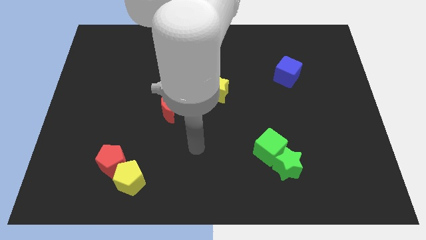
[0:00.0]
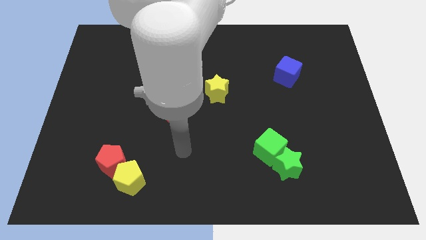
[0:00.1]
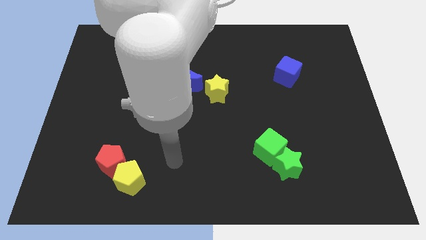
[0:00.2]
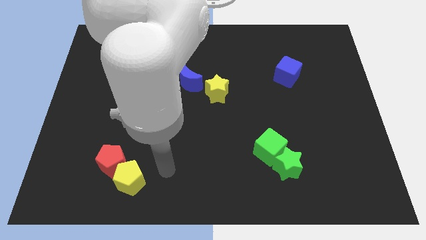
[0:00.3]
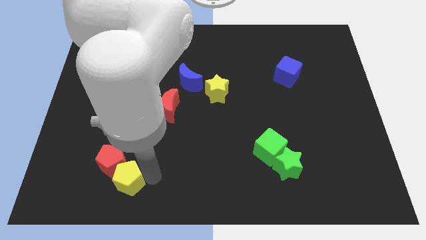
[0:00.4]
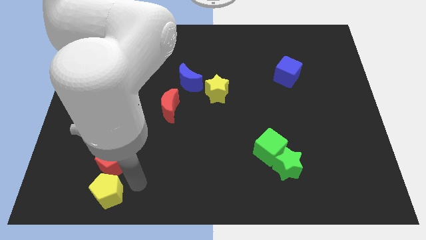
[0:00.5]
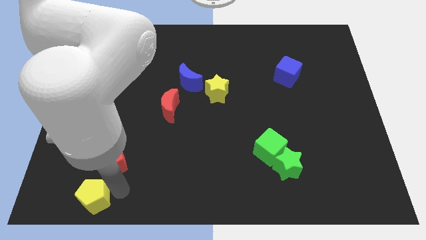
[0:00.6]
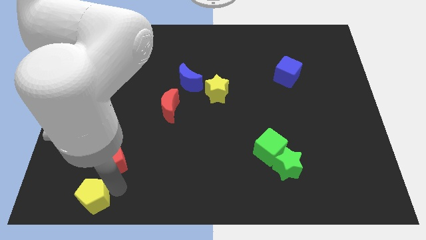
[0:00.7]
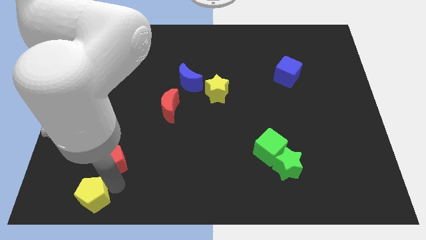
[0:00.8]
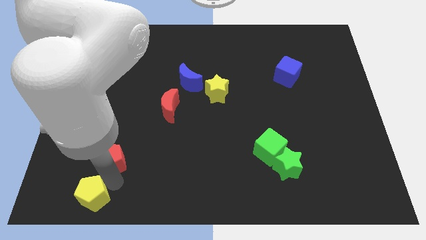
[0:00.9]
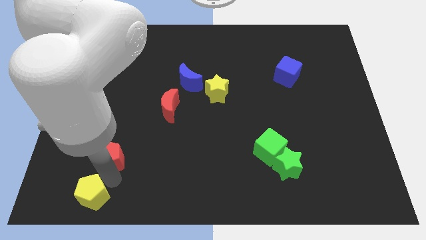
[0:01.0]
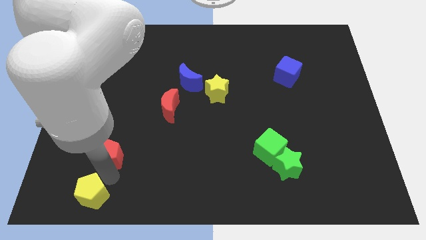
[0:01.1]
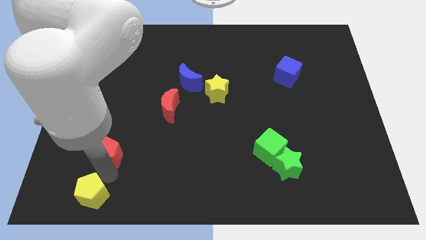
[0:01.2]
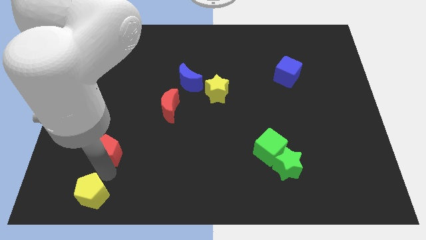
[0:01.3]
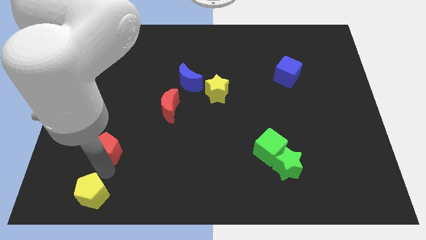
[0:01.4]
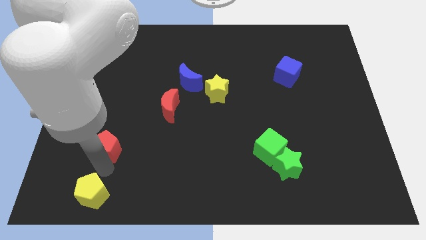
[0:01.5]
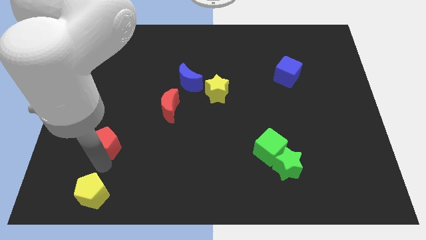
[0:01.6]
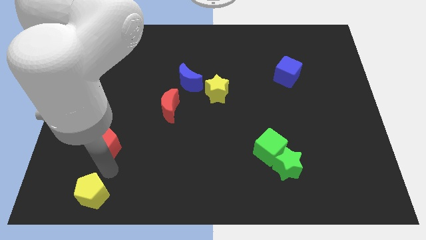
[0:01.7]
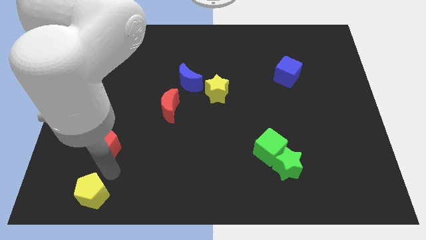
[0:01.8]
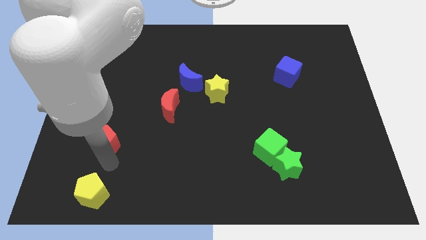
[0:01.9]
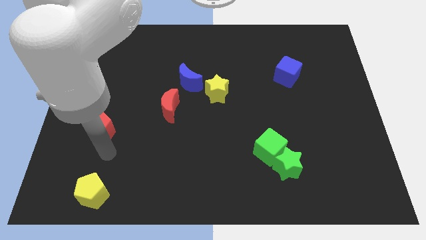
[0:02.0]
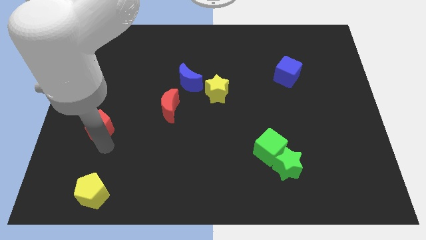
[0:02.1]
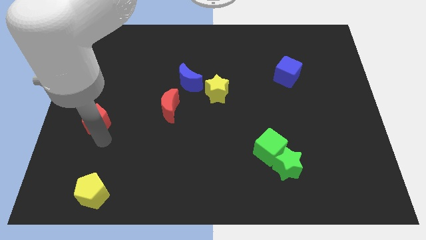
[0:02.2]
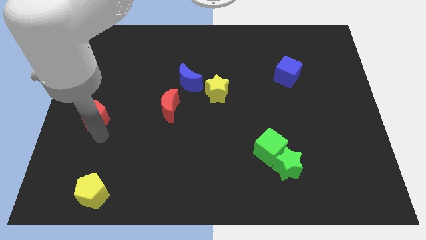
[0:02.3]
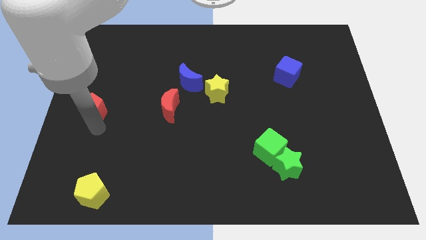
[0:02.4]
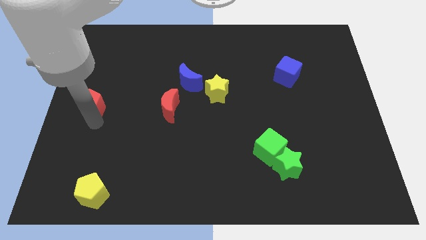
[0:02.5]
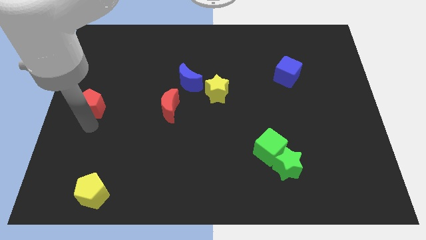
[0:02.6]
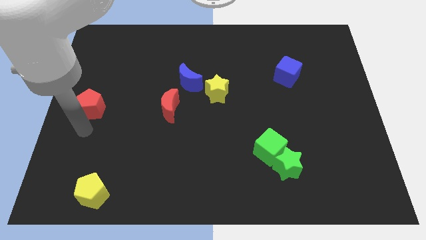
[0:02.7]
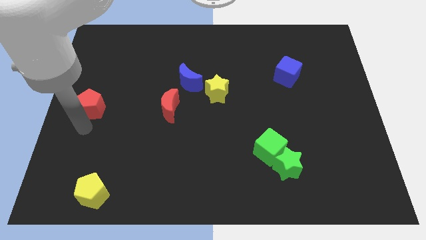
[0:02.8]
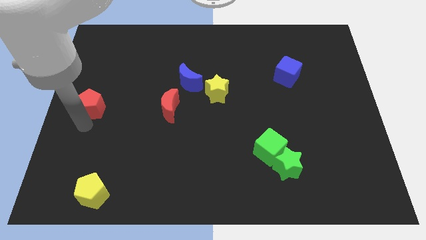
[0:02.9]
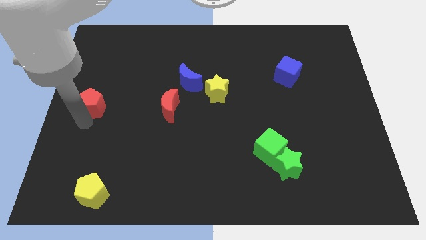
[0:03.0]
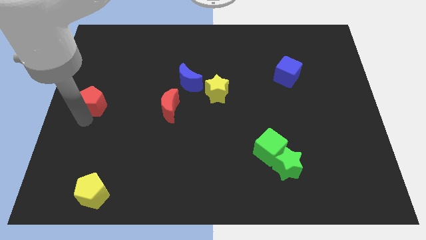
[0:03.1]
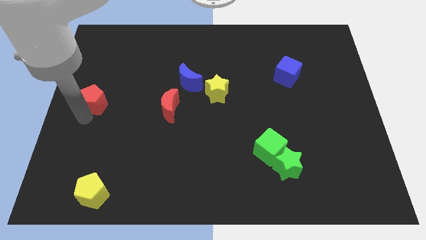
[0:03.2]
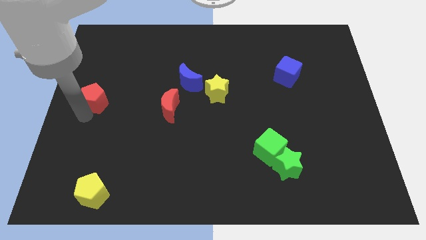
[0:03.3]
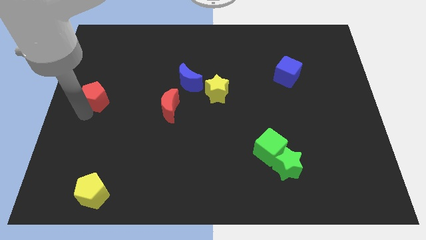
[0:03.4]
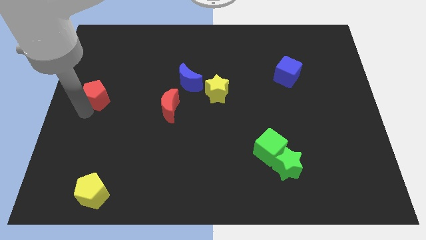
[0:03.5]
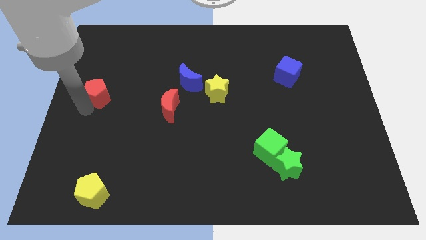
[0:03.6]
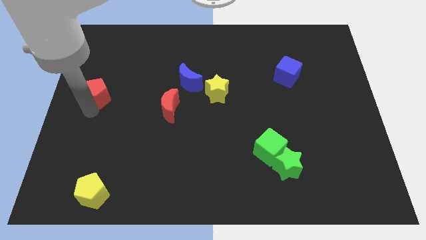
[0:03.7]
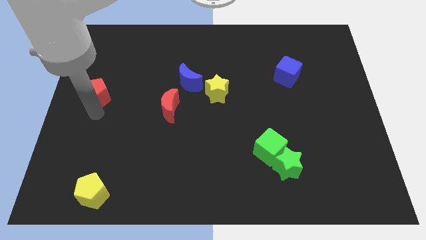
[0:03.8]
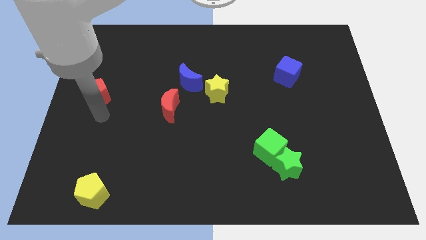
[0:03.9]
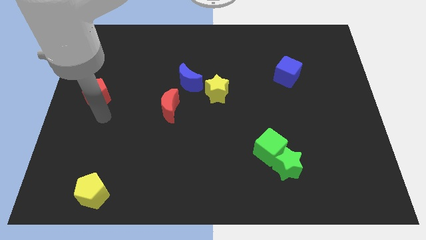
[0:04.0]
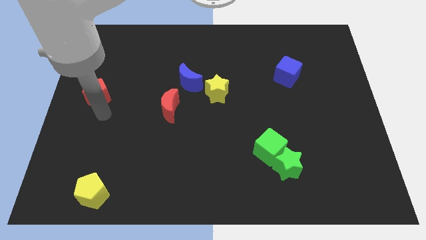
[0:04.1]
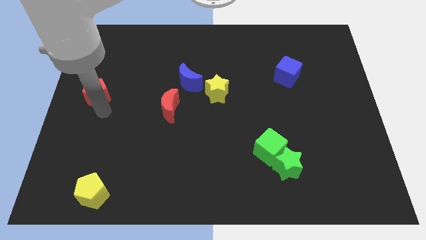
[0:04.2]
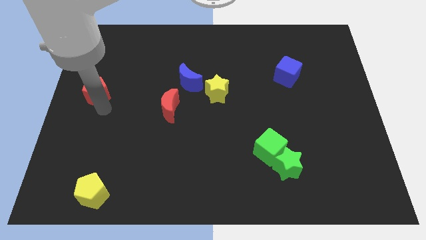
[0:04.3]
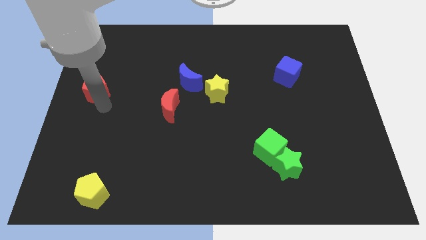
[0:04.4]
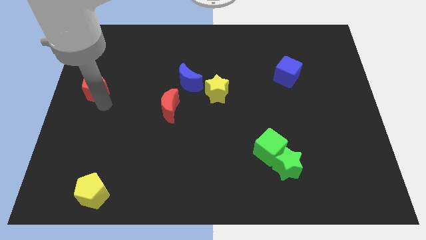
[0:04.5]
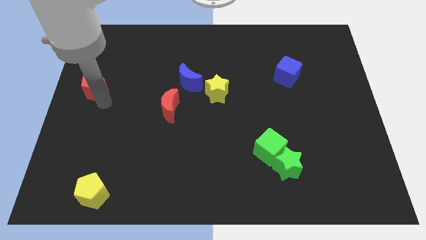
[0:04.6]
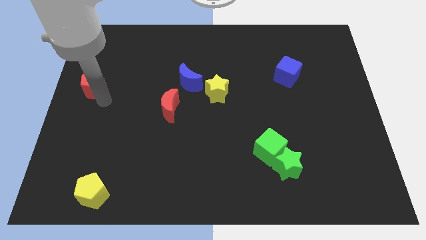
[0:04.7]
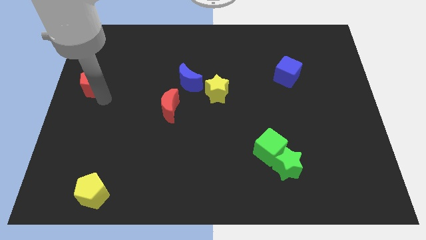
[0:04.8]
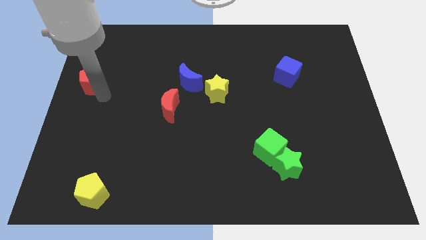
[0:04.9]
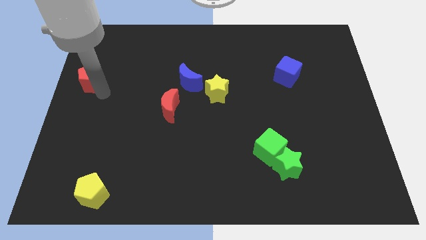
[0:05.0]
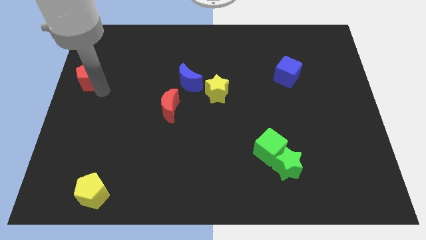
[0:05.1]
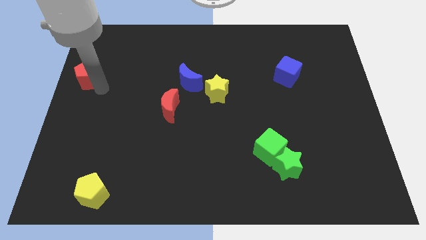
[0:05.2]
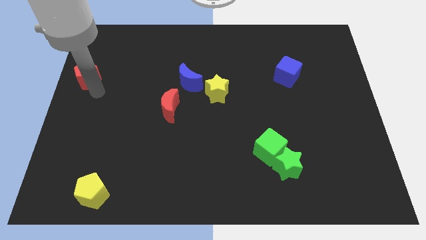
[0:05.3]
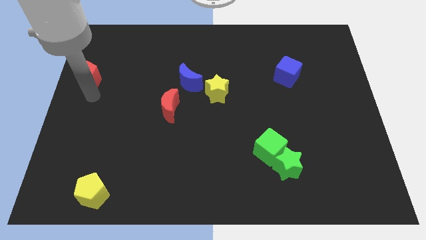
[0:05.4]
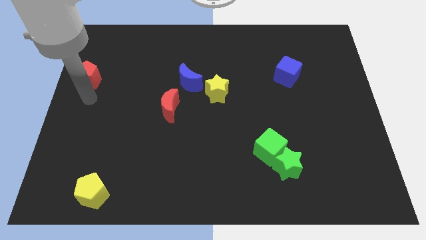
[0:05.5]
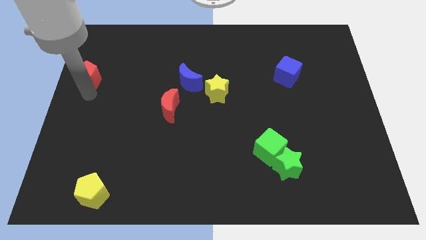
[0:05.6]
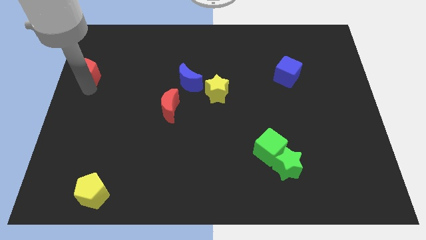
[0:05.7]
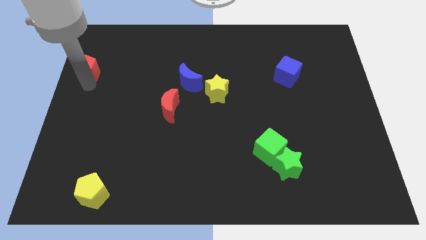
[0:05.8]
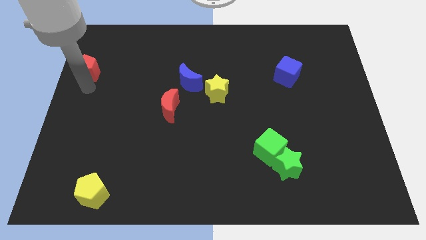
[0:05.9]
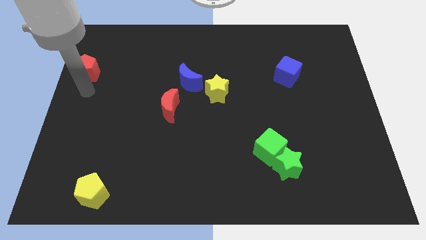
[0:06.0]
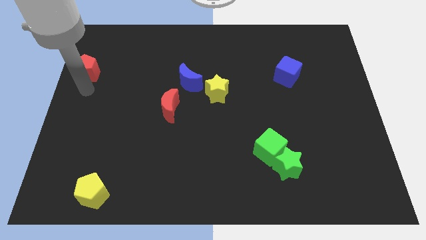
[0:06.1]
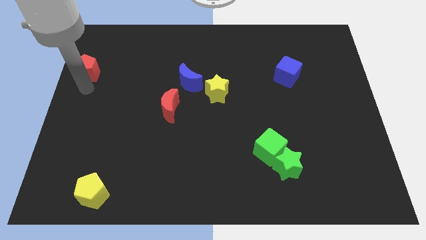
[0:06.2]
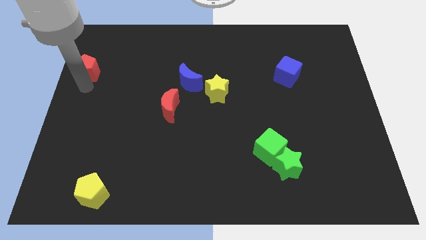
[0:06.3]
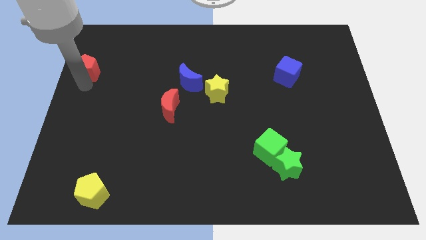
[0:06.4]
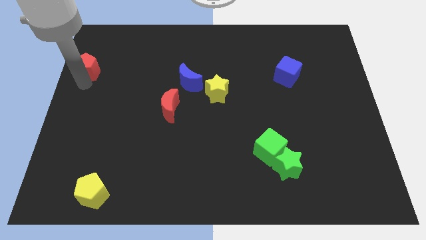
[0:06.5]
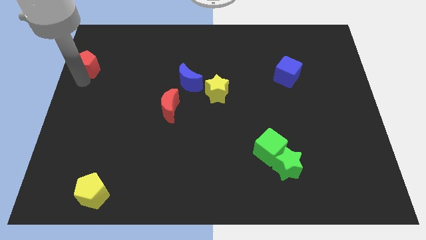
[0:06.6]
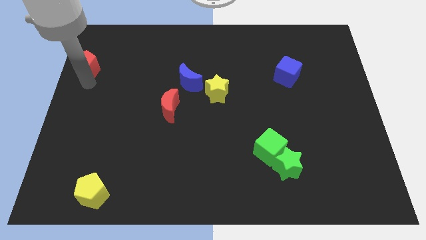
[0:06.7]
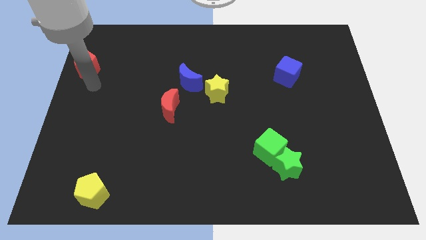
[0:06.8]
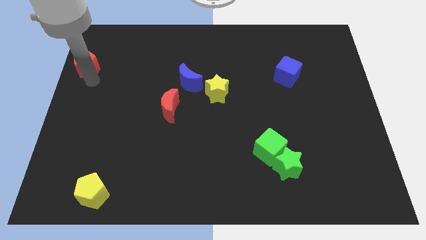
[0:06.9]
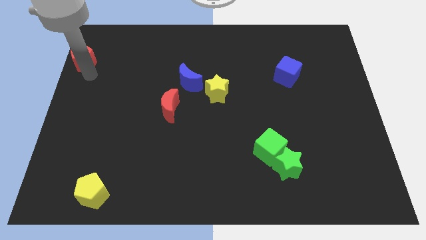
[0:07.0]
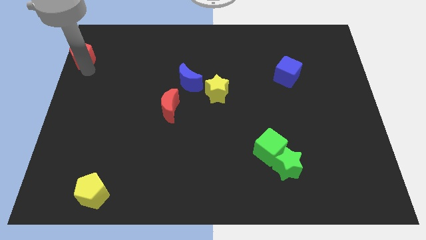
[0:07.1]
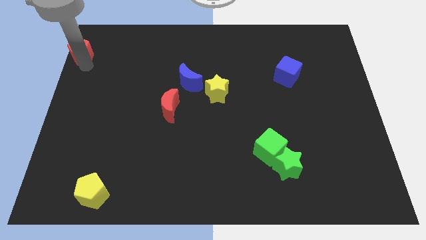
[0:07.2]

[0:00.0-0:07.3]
push the red pentagon to the upper left corner
